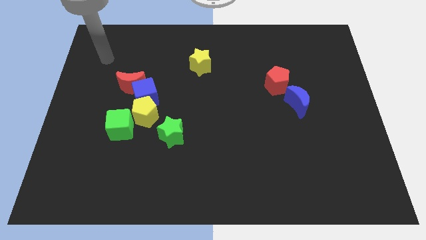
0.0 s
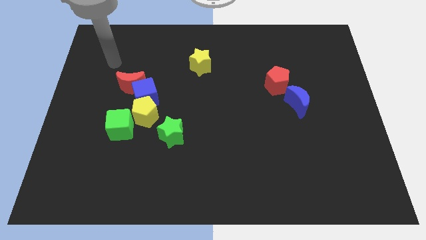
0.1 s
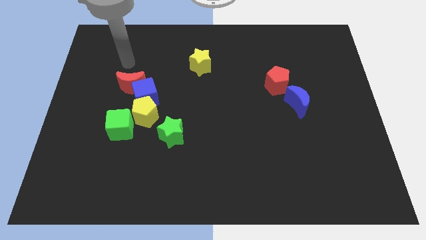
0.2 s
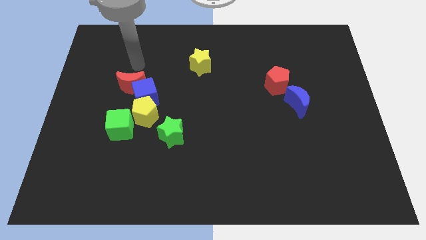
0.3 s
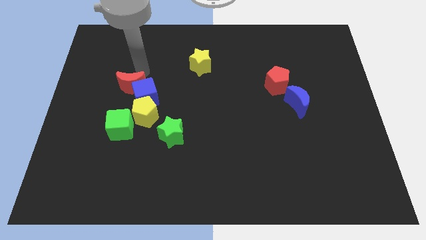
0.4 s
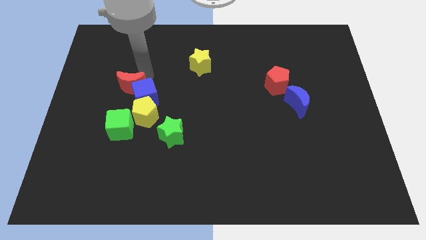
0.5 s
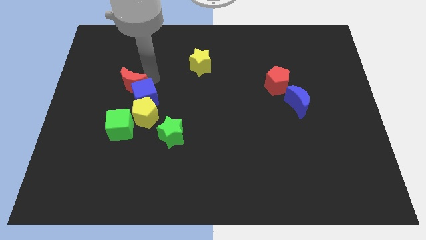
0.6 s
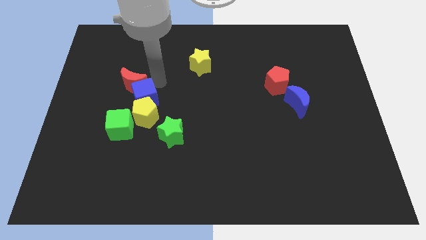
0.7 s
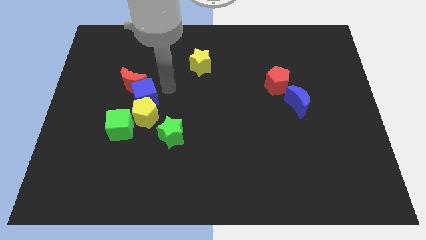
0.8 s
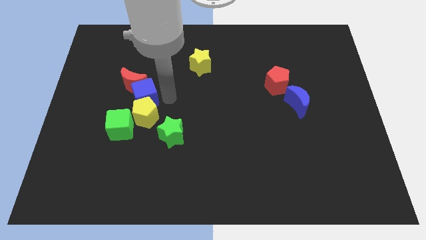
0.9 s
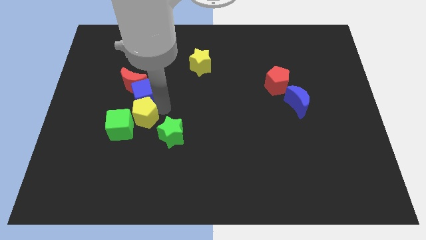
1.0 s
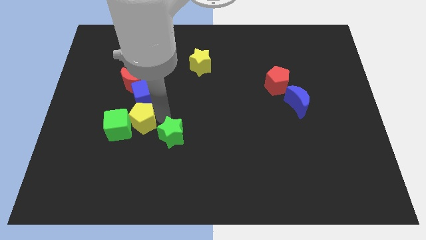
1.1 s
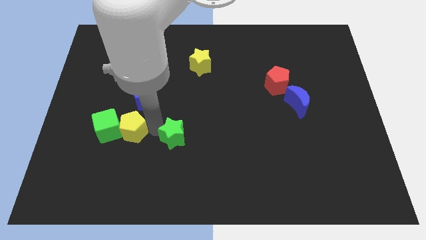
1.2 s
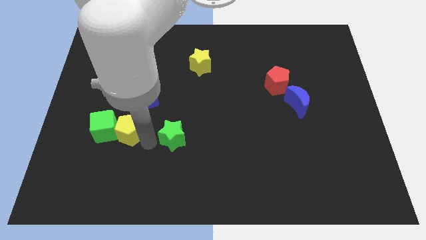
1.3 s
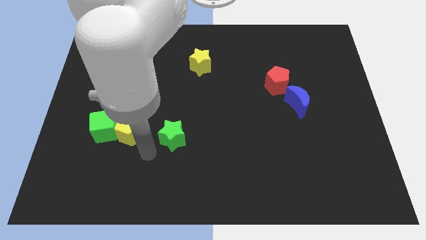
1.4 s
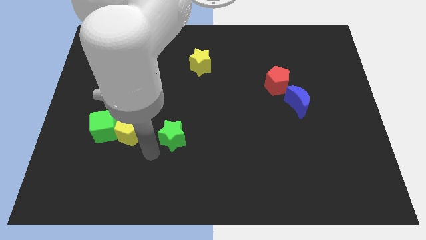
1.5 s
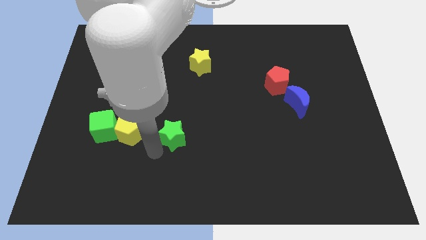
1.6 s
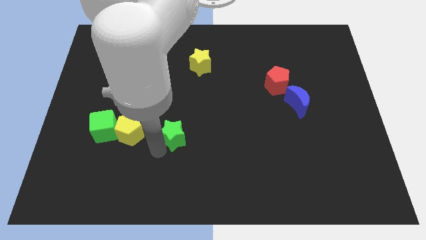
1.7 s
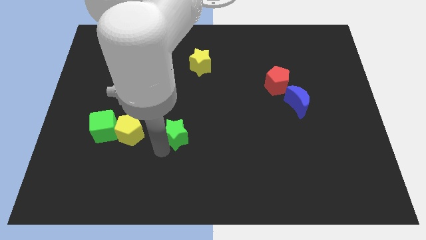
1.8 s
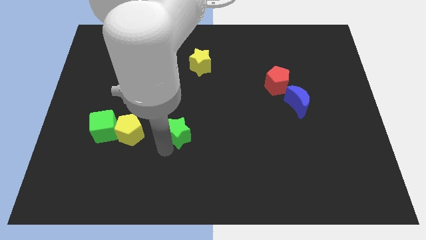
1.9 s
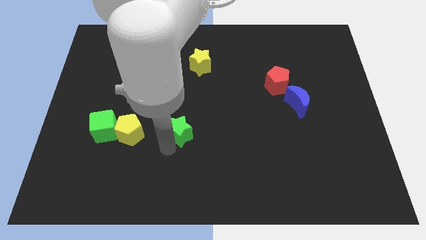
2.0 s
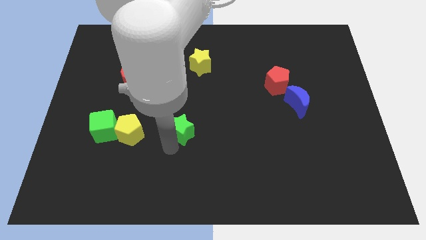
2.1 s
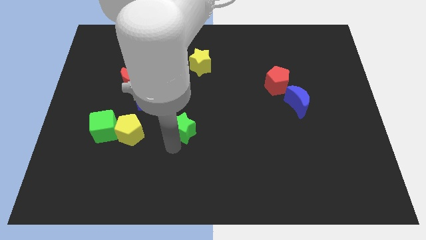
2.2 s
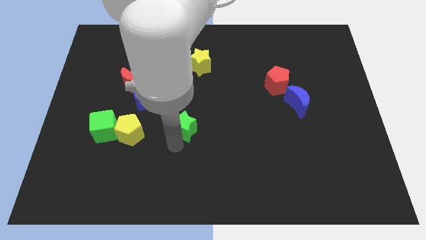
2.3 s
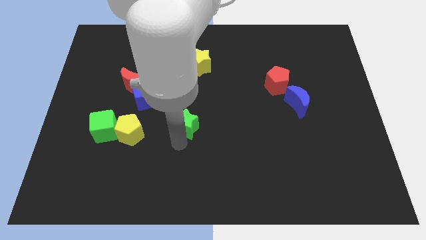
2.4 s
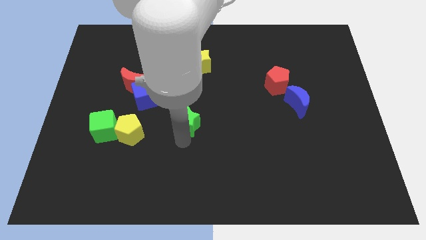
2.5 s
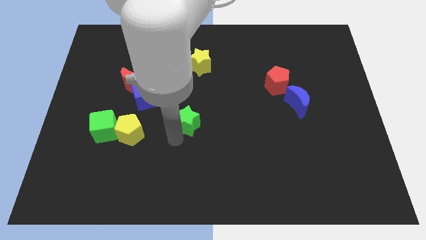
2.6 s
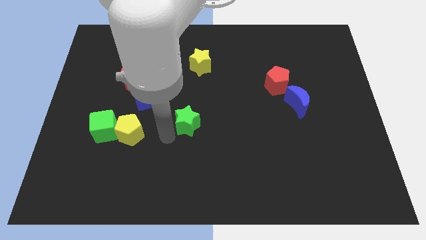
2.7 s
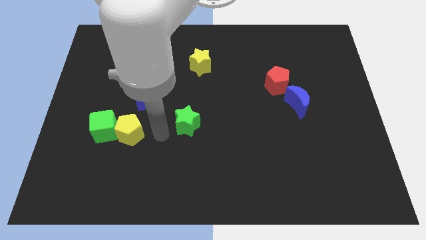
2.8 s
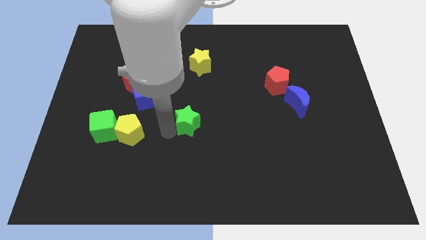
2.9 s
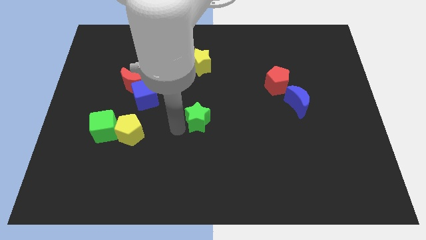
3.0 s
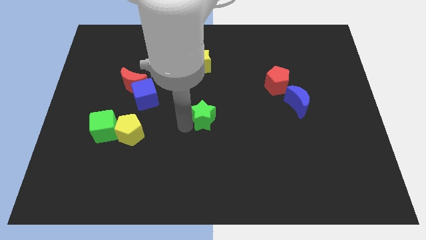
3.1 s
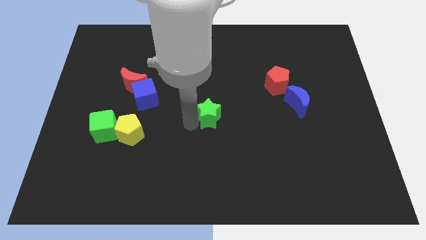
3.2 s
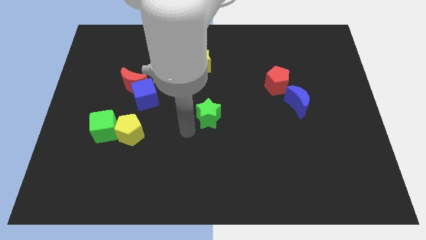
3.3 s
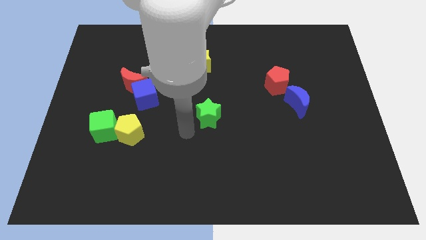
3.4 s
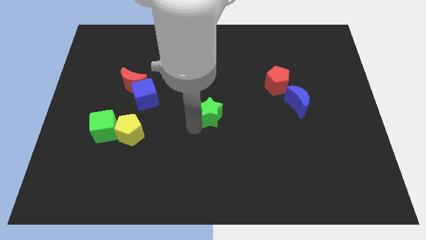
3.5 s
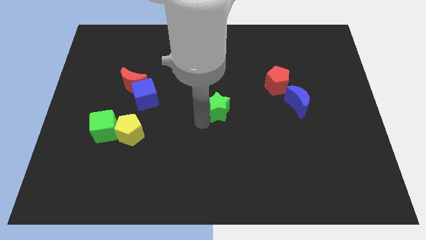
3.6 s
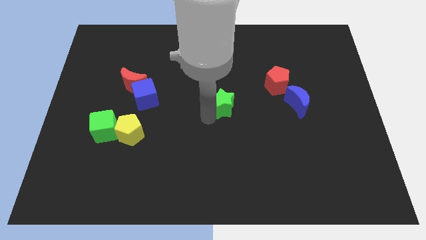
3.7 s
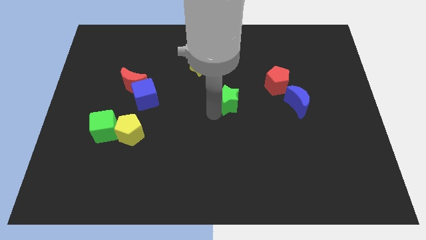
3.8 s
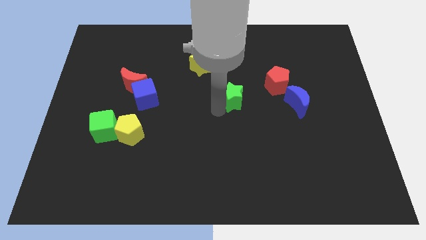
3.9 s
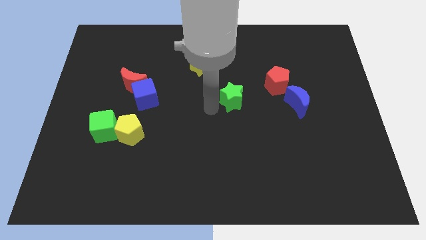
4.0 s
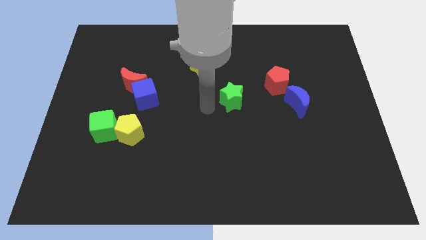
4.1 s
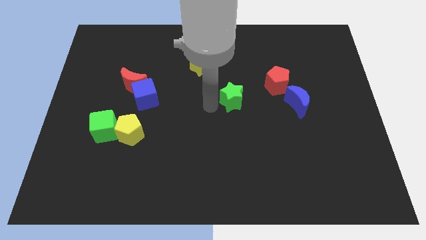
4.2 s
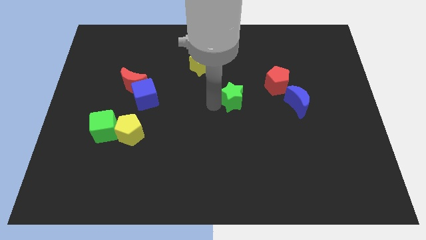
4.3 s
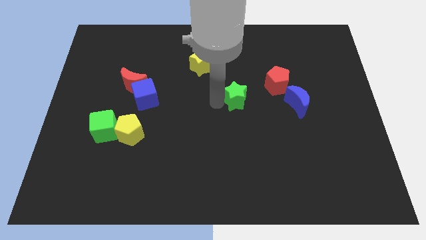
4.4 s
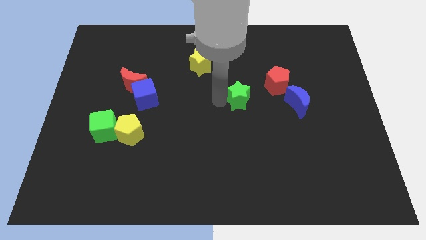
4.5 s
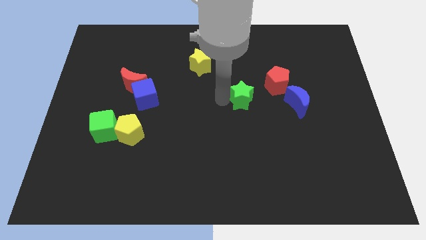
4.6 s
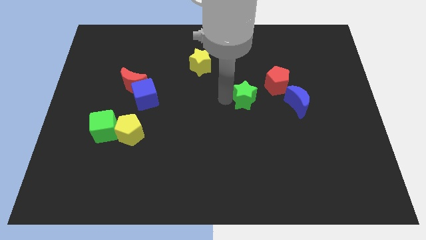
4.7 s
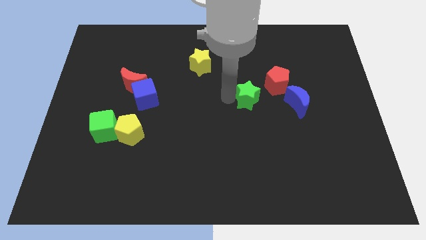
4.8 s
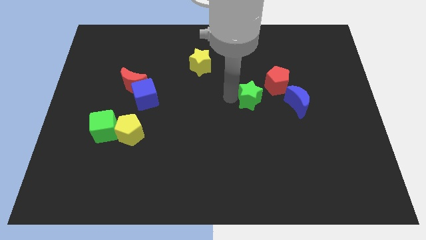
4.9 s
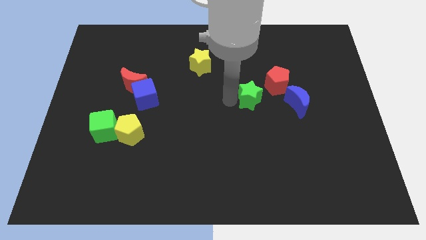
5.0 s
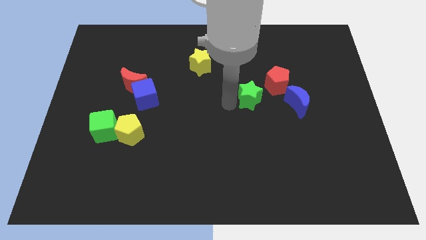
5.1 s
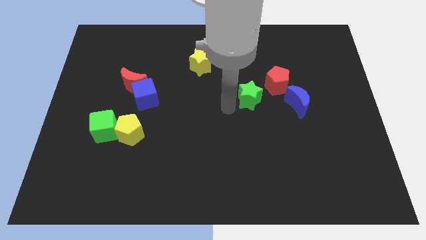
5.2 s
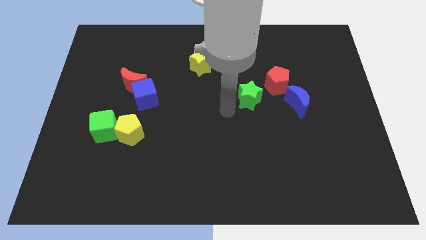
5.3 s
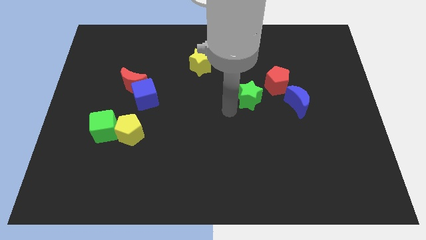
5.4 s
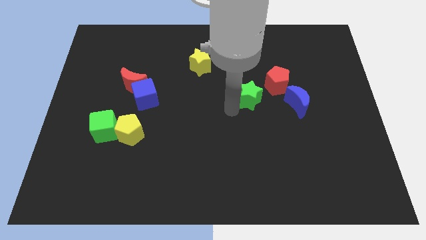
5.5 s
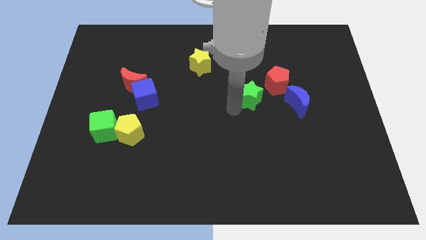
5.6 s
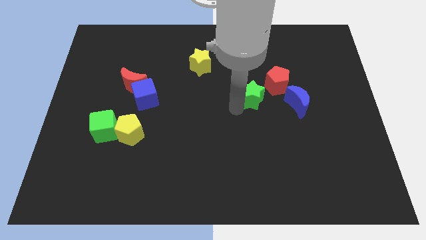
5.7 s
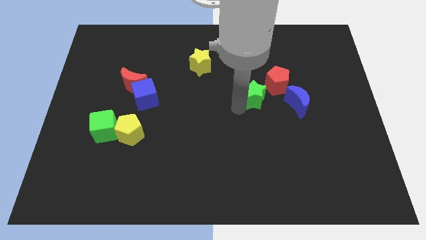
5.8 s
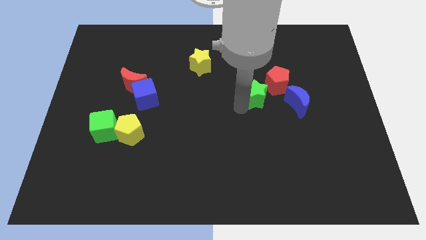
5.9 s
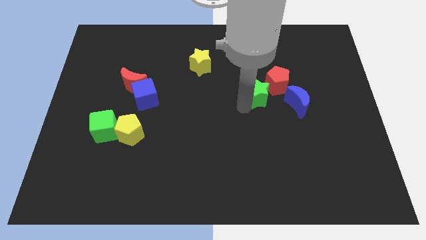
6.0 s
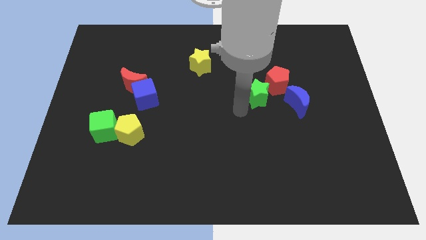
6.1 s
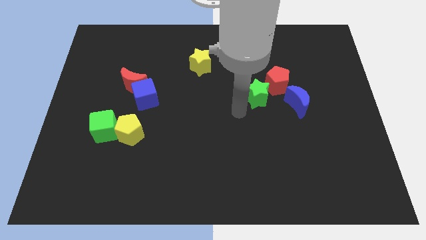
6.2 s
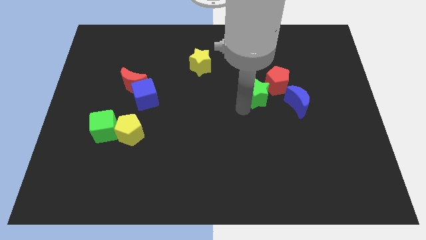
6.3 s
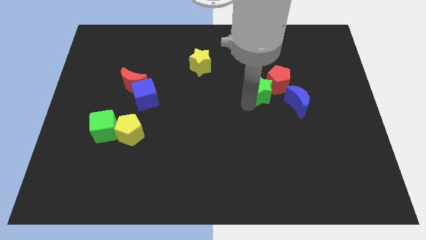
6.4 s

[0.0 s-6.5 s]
put the green star next to the red pentagon
